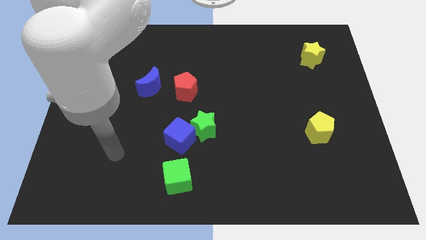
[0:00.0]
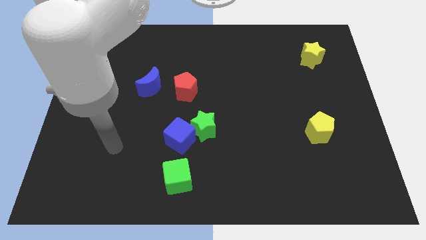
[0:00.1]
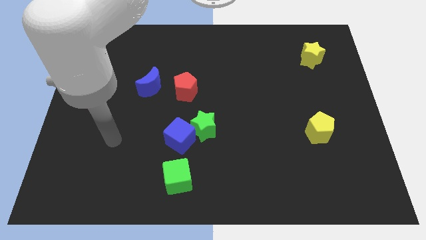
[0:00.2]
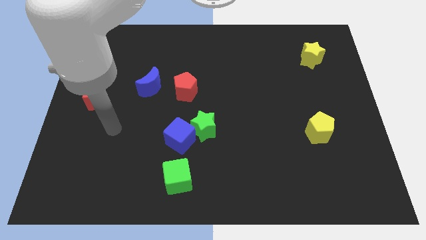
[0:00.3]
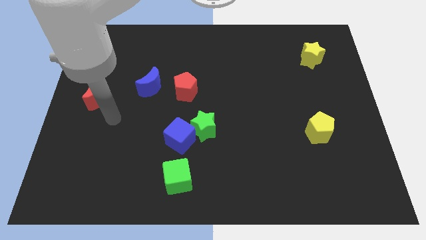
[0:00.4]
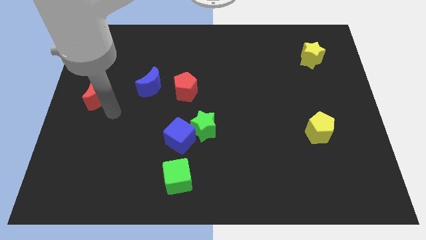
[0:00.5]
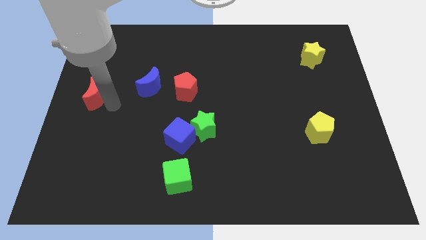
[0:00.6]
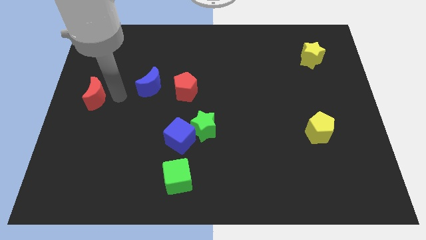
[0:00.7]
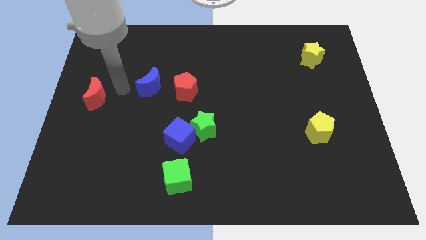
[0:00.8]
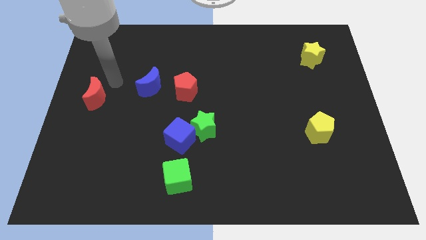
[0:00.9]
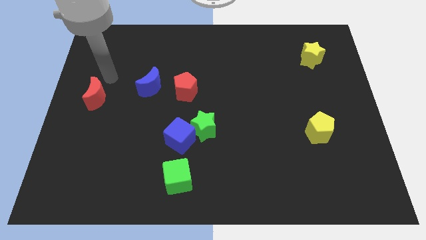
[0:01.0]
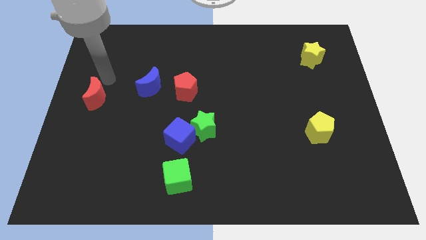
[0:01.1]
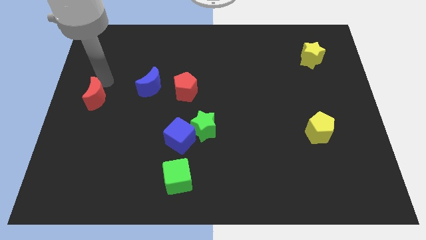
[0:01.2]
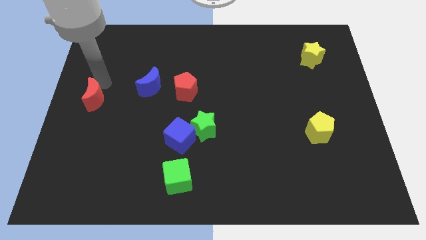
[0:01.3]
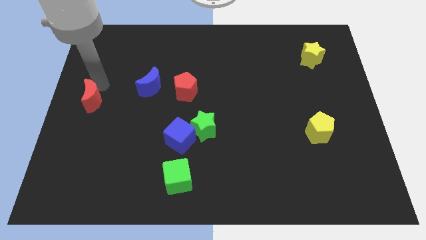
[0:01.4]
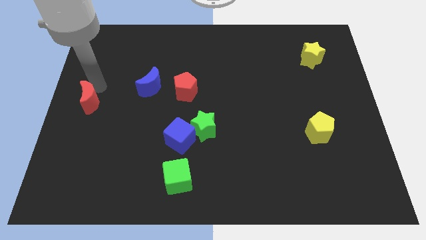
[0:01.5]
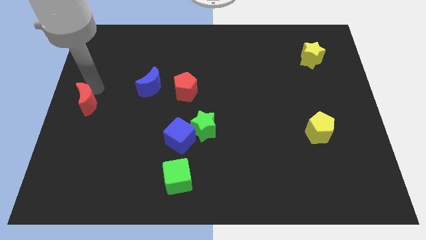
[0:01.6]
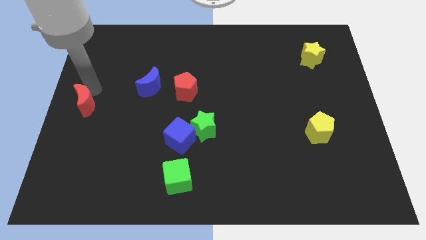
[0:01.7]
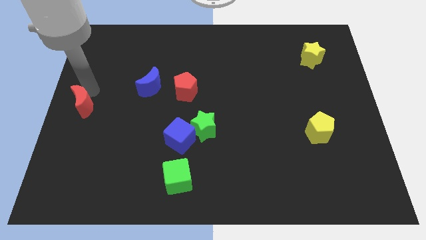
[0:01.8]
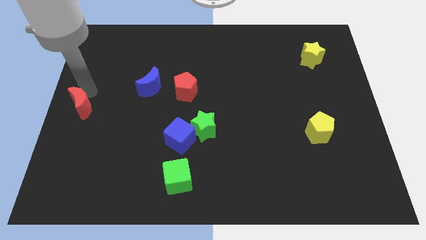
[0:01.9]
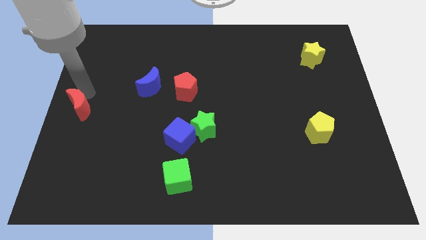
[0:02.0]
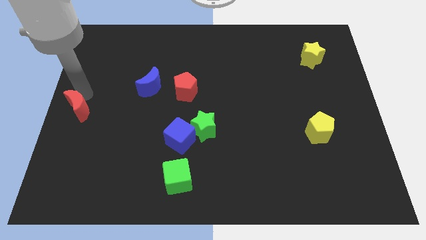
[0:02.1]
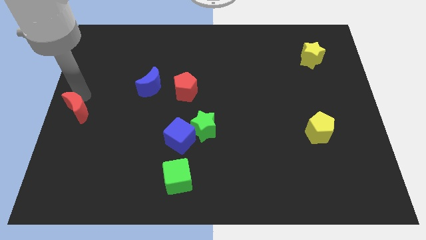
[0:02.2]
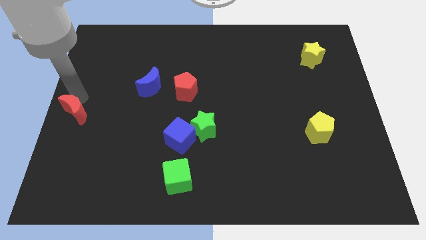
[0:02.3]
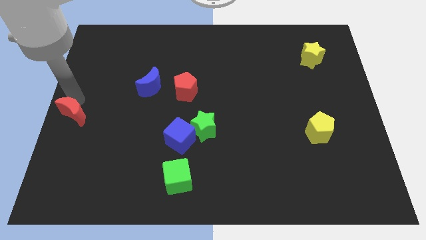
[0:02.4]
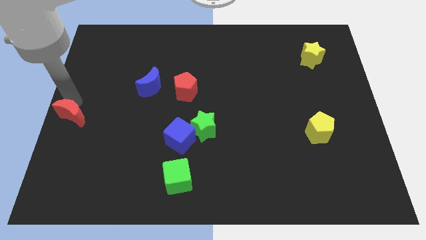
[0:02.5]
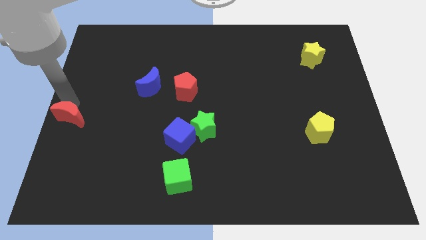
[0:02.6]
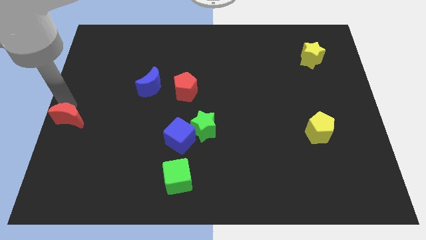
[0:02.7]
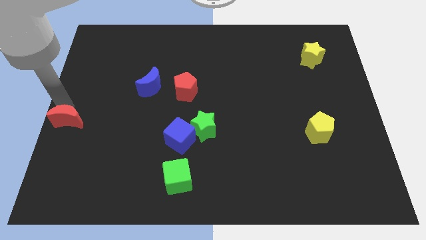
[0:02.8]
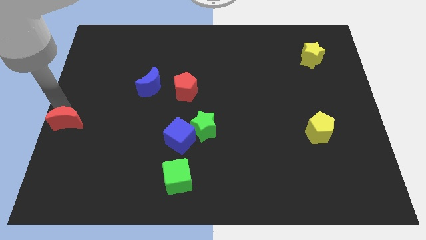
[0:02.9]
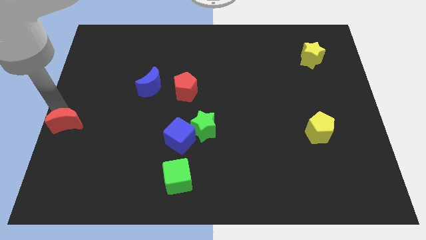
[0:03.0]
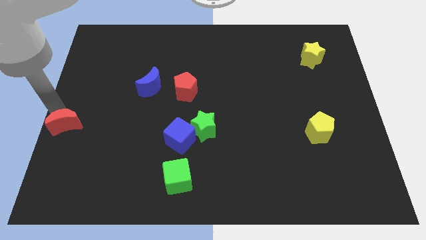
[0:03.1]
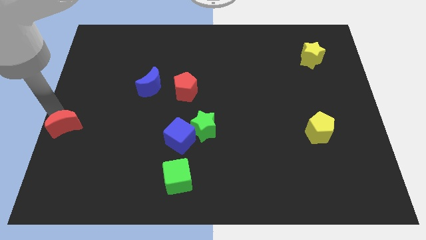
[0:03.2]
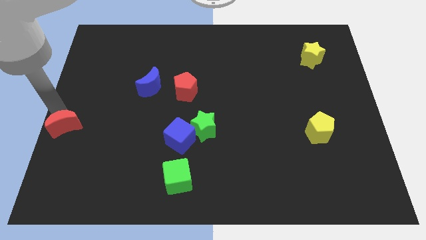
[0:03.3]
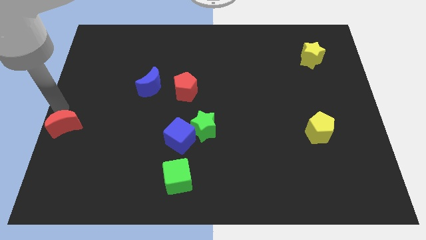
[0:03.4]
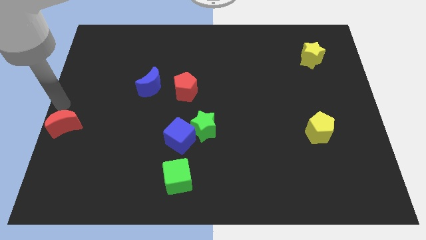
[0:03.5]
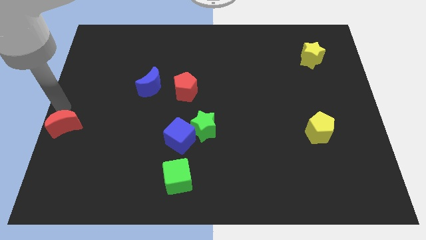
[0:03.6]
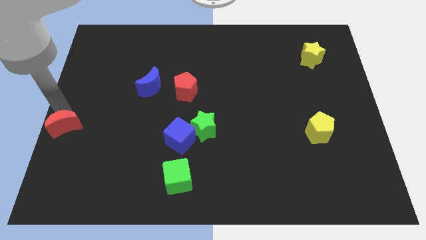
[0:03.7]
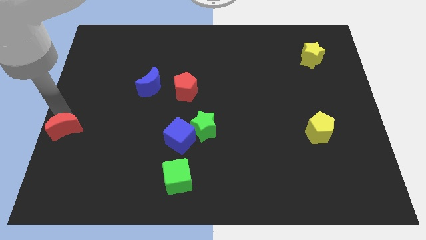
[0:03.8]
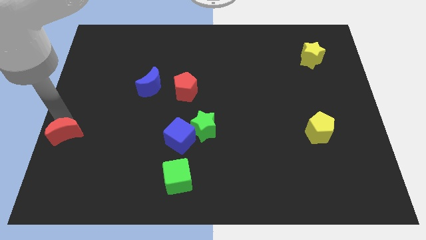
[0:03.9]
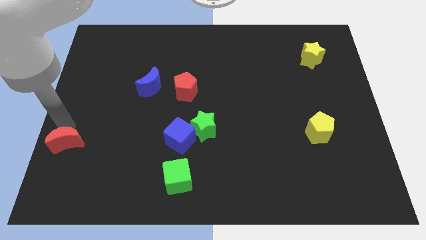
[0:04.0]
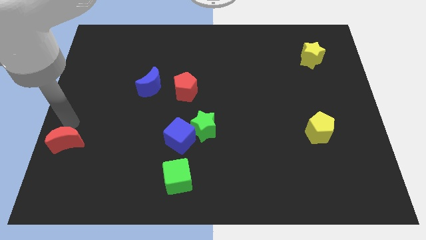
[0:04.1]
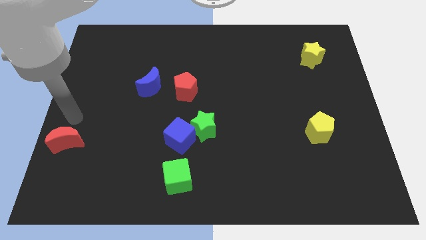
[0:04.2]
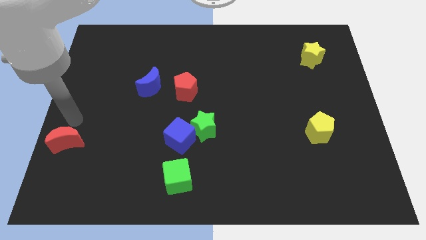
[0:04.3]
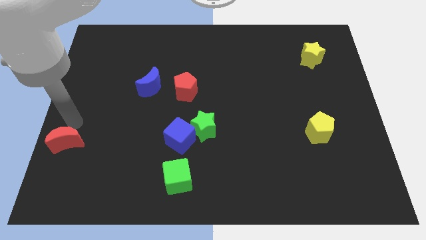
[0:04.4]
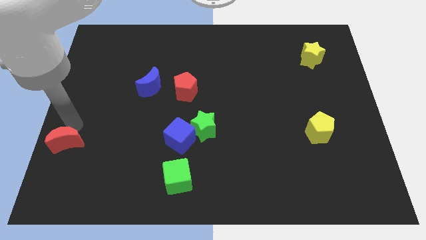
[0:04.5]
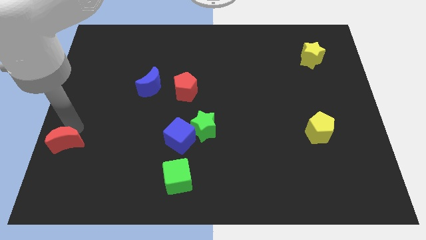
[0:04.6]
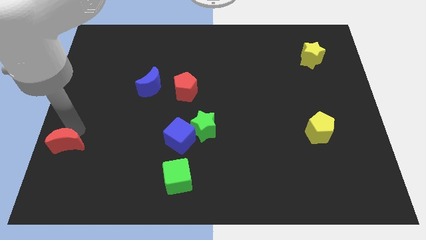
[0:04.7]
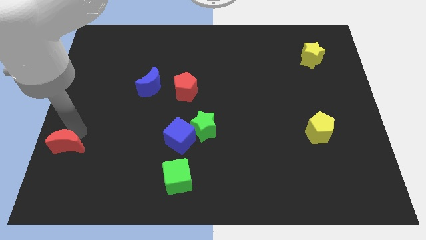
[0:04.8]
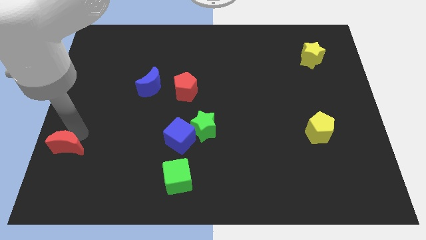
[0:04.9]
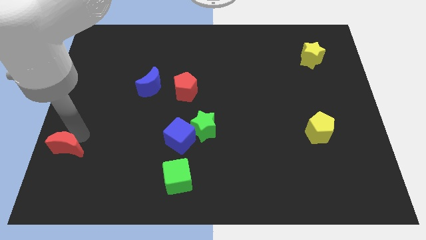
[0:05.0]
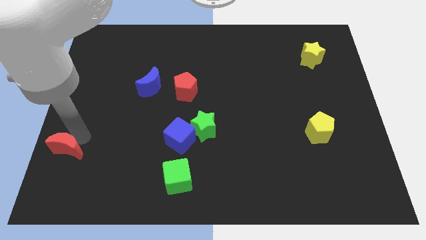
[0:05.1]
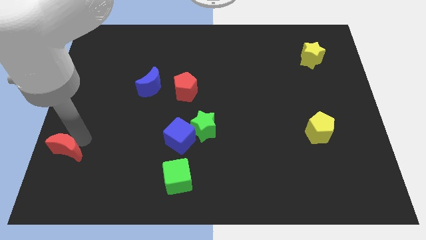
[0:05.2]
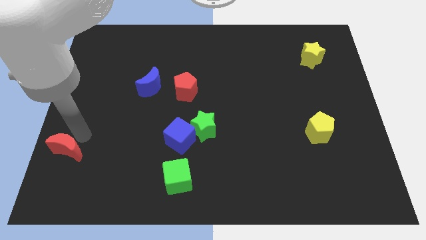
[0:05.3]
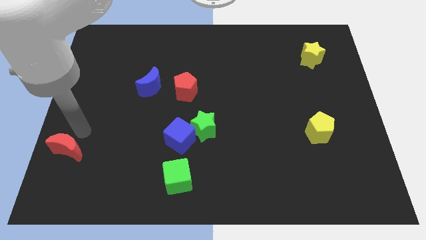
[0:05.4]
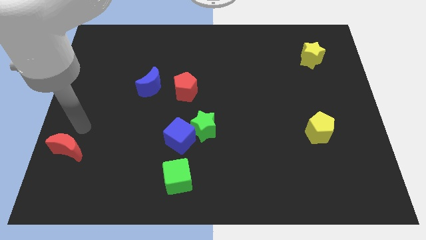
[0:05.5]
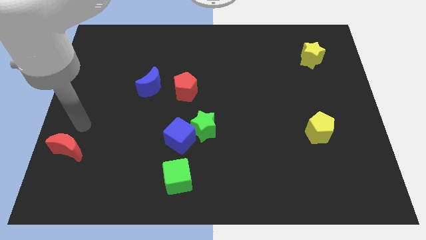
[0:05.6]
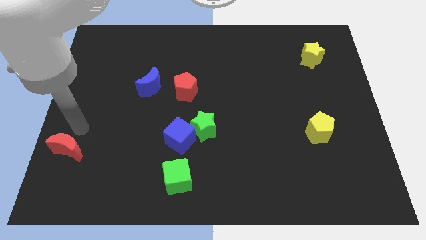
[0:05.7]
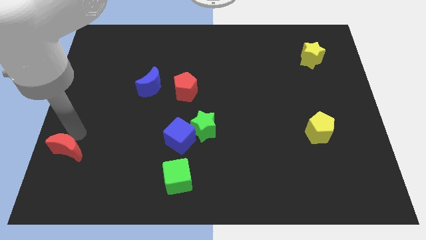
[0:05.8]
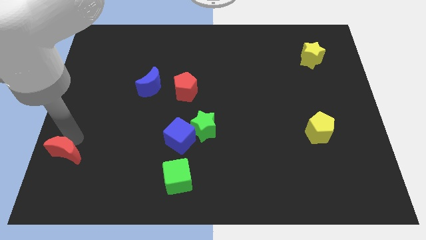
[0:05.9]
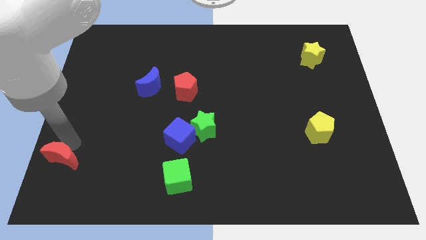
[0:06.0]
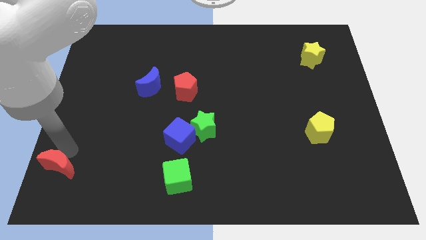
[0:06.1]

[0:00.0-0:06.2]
slide the red moon to the bottom left of the board
